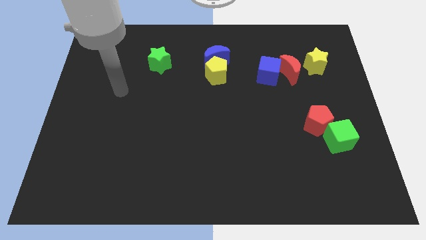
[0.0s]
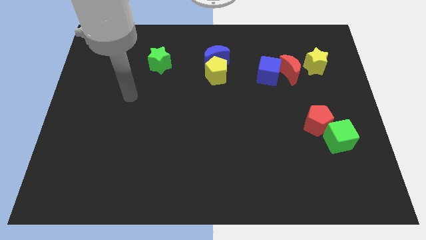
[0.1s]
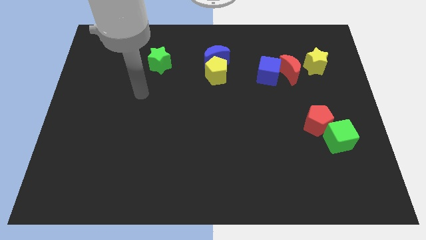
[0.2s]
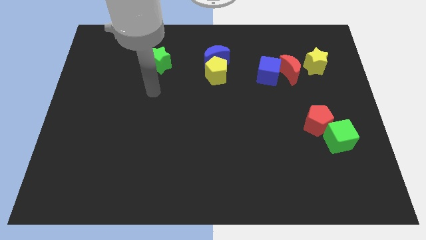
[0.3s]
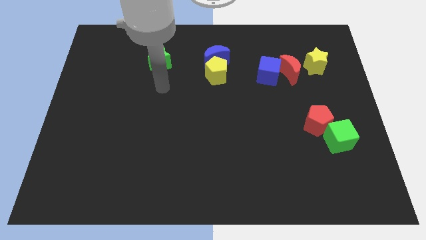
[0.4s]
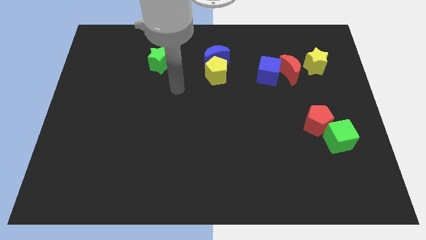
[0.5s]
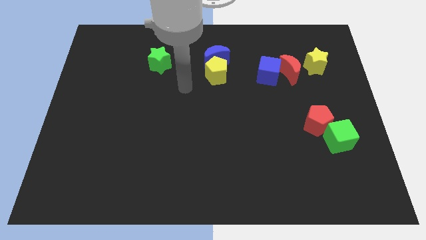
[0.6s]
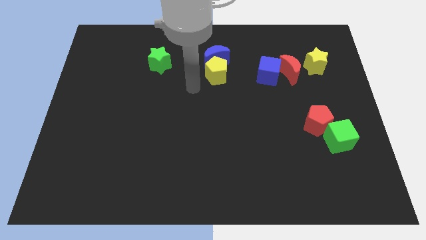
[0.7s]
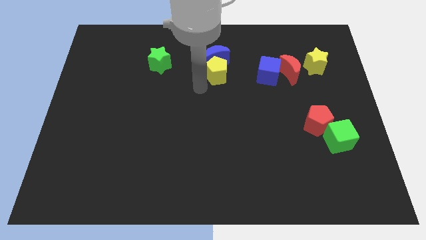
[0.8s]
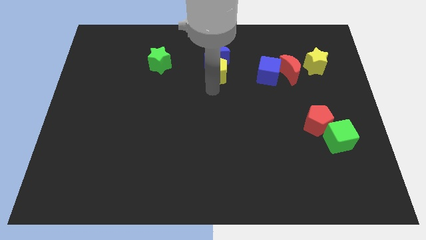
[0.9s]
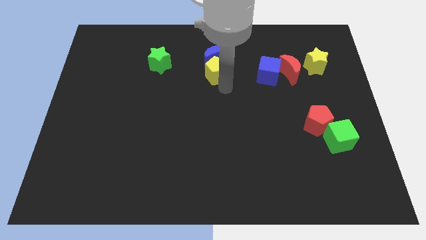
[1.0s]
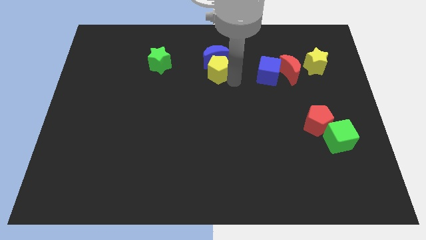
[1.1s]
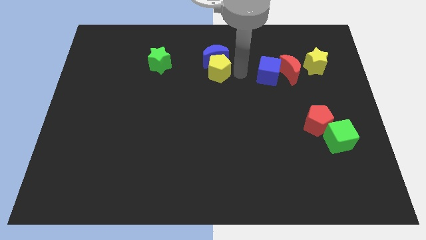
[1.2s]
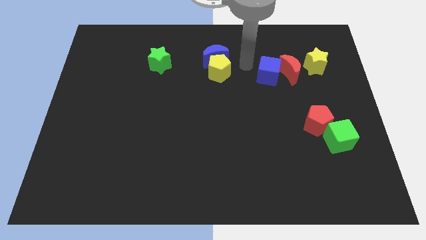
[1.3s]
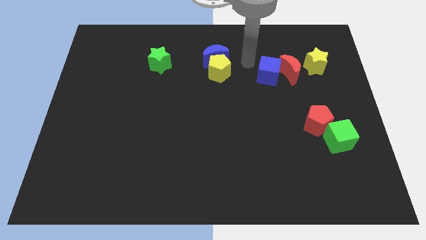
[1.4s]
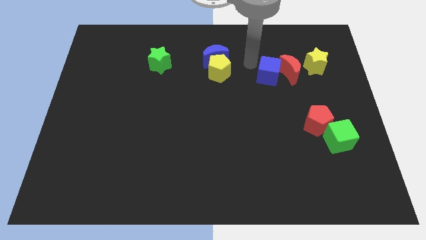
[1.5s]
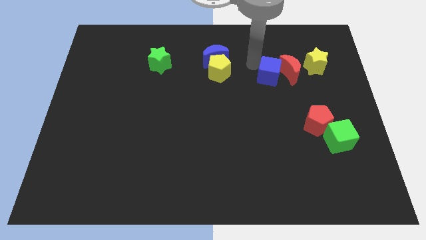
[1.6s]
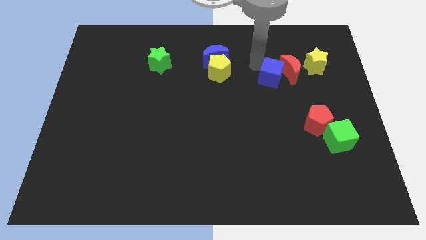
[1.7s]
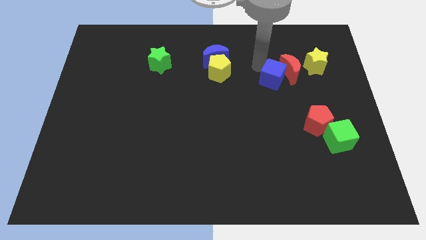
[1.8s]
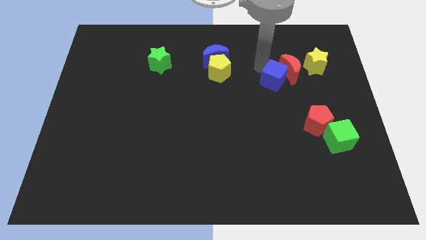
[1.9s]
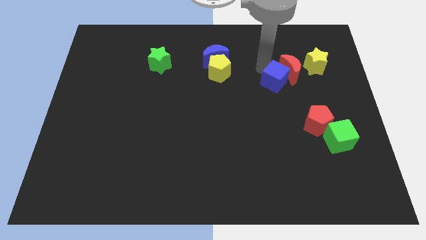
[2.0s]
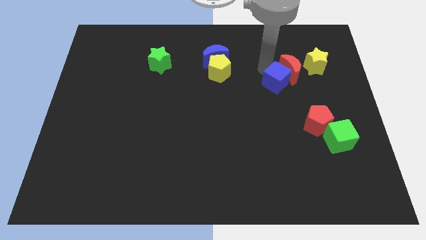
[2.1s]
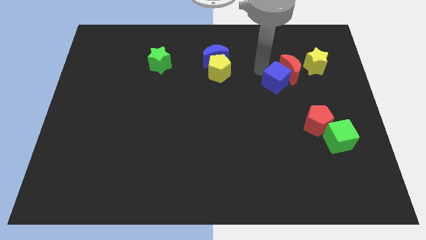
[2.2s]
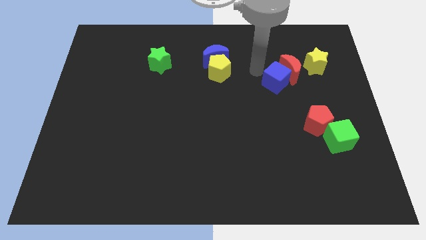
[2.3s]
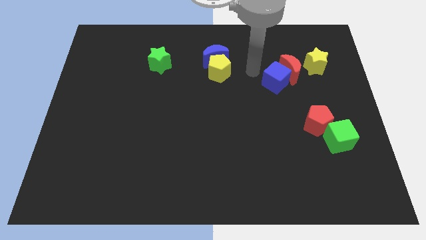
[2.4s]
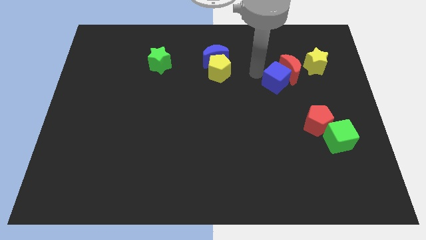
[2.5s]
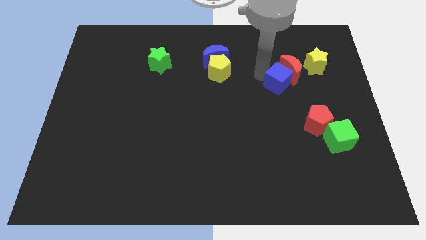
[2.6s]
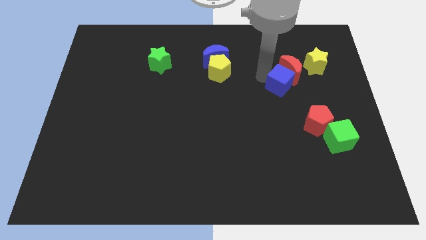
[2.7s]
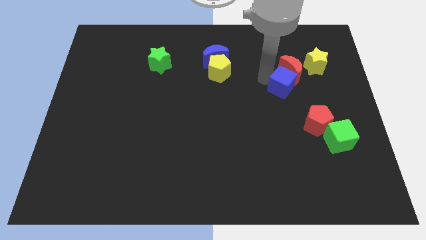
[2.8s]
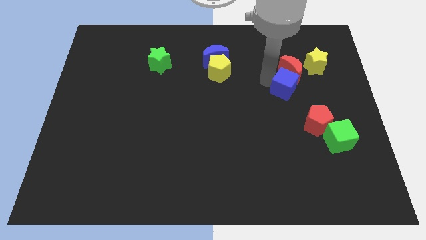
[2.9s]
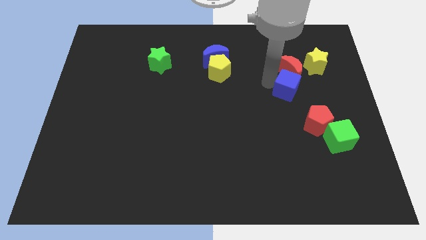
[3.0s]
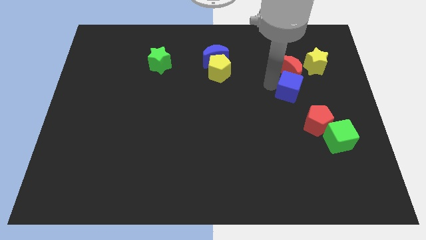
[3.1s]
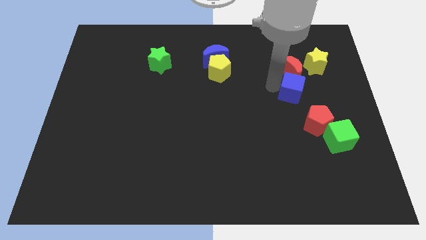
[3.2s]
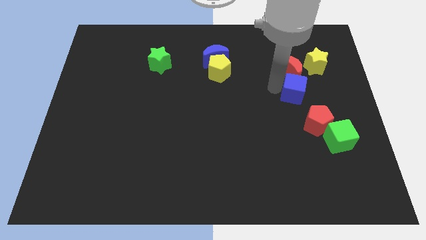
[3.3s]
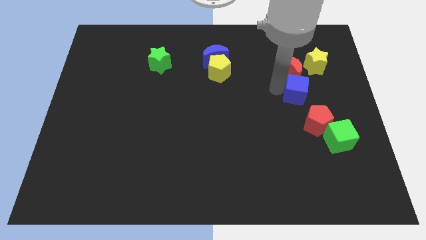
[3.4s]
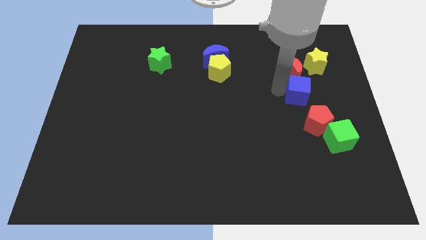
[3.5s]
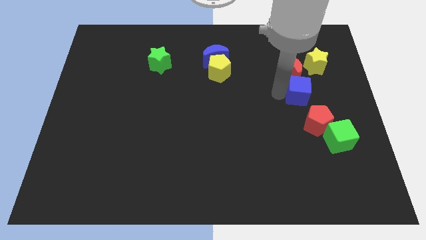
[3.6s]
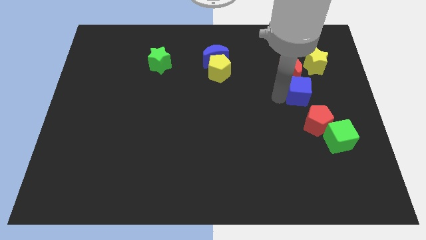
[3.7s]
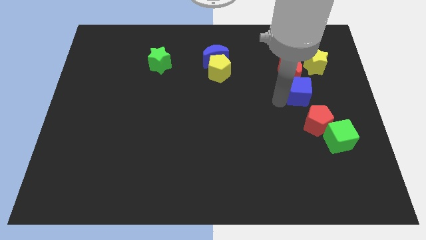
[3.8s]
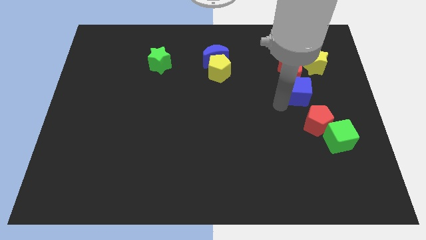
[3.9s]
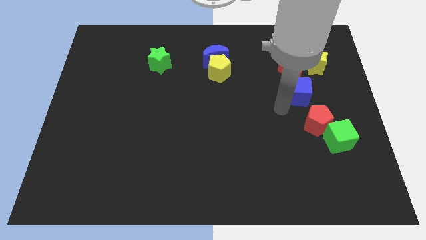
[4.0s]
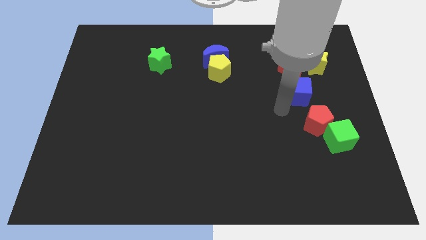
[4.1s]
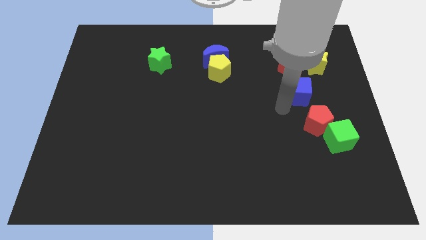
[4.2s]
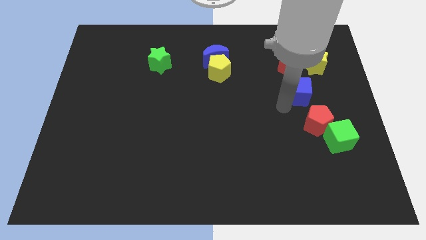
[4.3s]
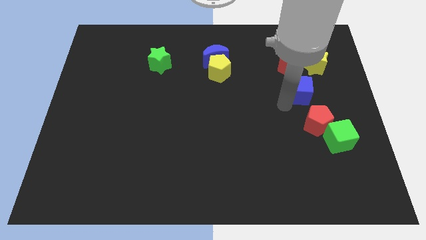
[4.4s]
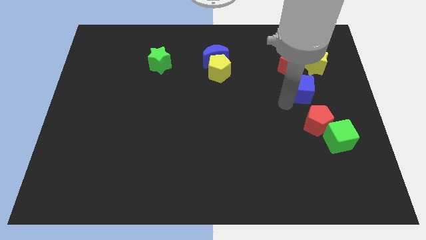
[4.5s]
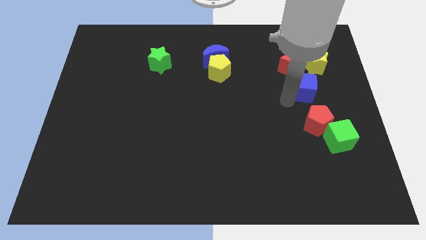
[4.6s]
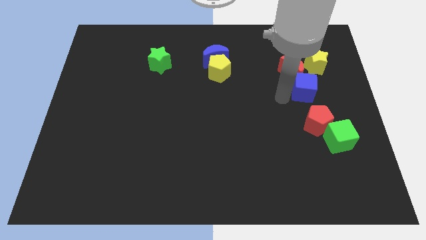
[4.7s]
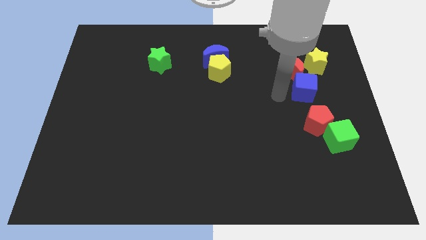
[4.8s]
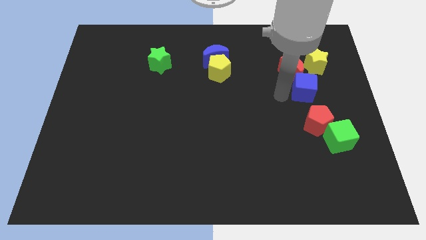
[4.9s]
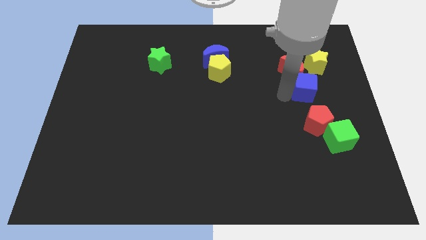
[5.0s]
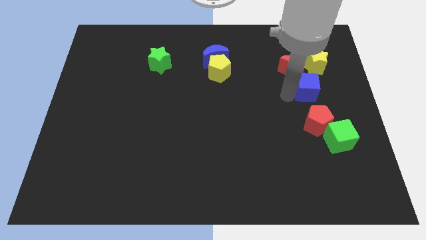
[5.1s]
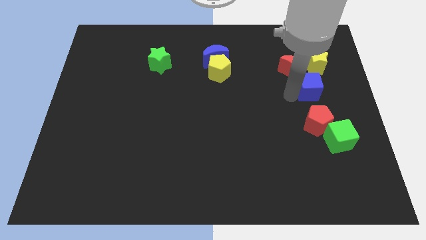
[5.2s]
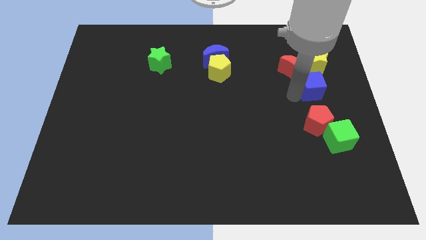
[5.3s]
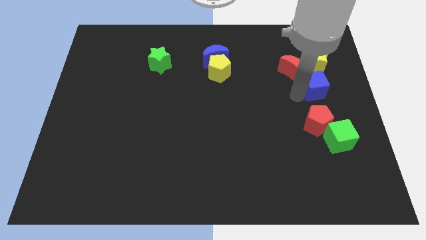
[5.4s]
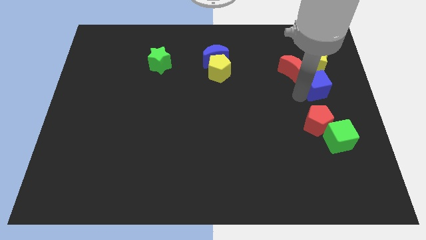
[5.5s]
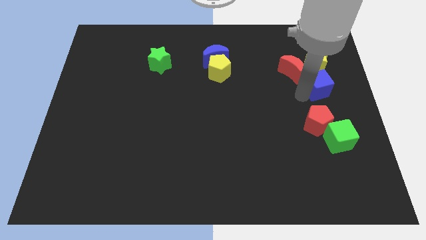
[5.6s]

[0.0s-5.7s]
push the blue cube to the right side
